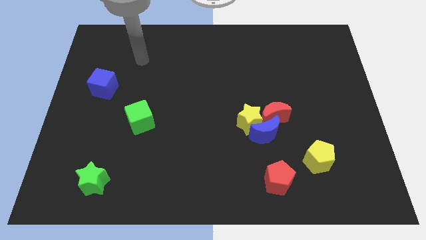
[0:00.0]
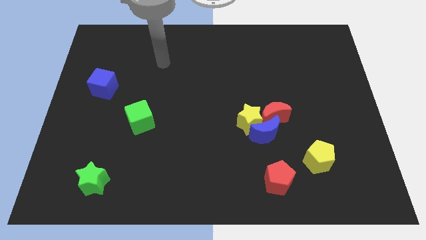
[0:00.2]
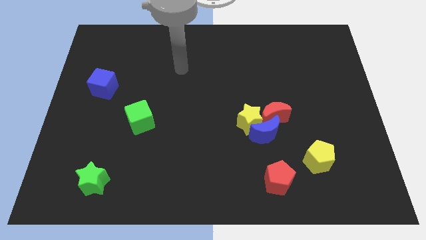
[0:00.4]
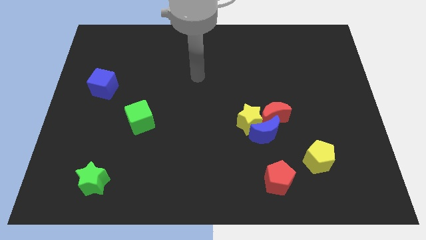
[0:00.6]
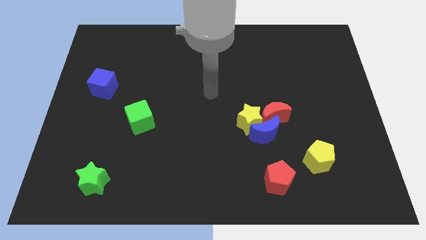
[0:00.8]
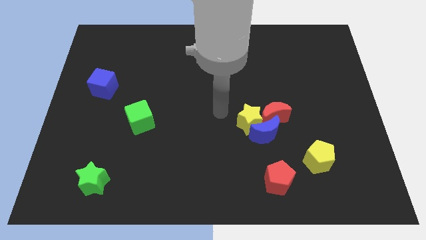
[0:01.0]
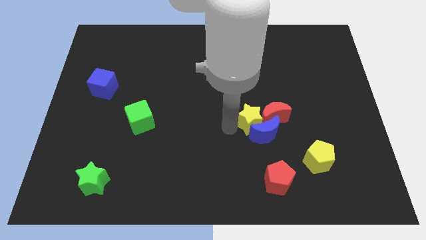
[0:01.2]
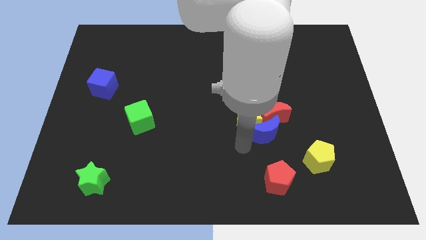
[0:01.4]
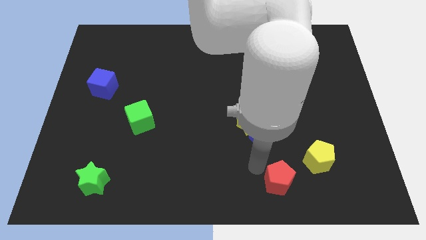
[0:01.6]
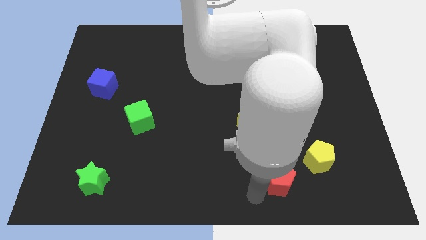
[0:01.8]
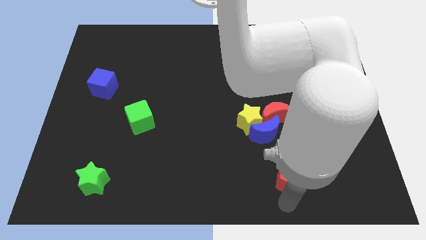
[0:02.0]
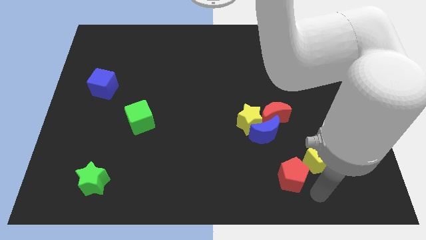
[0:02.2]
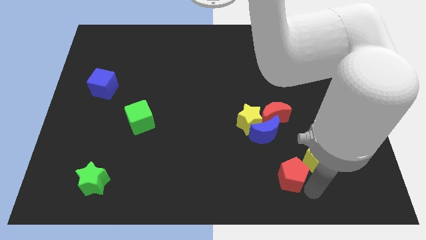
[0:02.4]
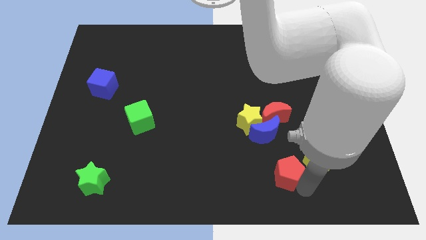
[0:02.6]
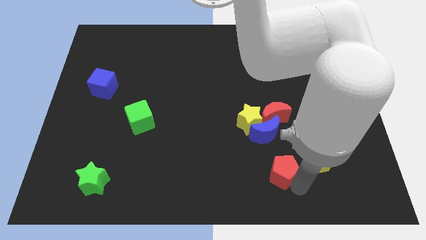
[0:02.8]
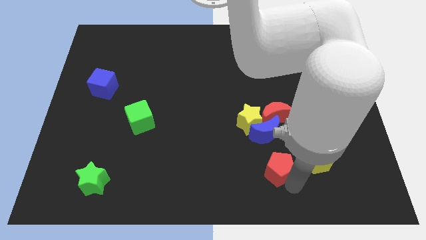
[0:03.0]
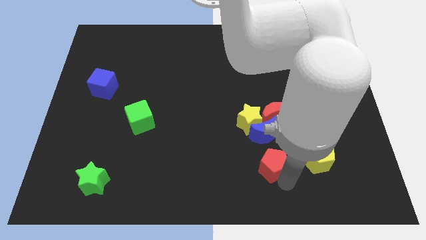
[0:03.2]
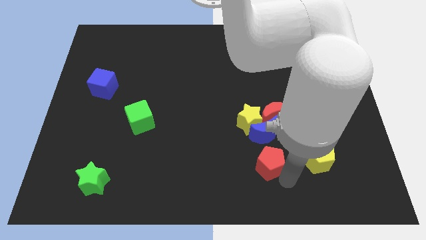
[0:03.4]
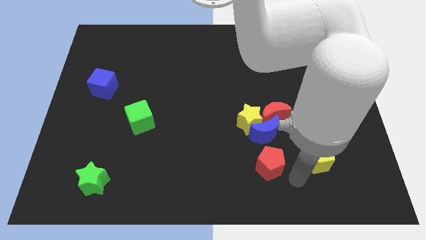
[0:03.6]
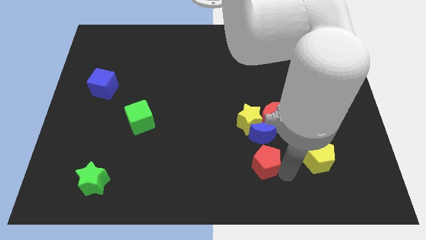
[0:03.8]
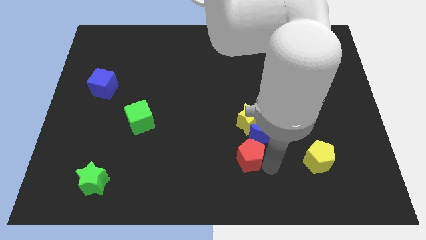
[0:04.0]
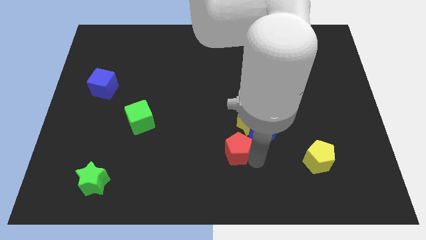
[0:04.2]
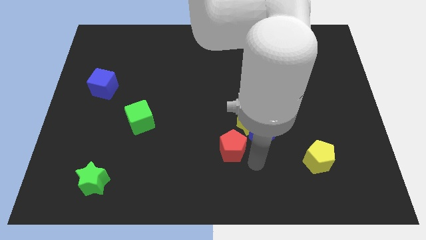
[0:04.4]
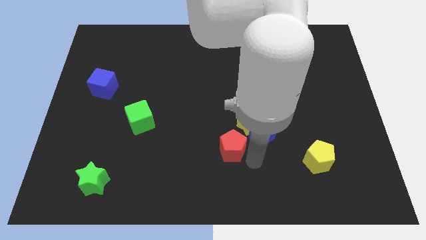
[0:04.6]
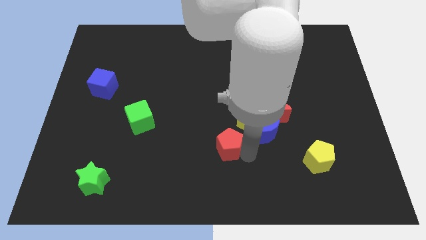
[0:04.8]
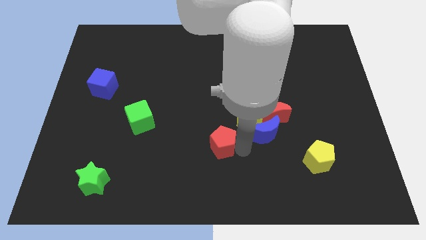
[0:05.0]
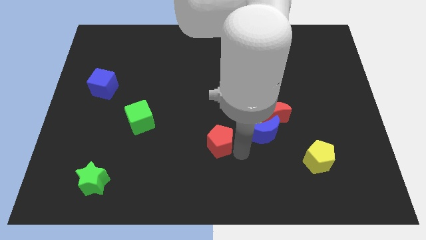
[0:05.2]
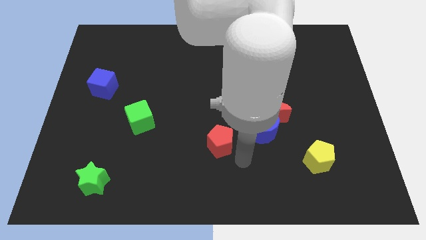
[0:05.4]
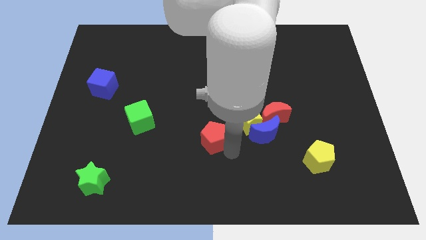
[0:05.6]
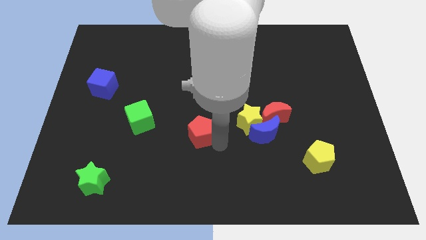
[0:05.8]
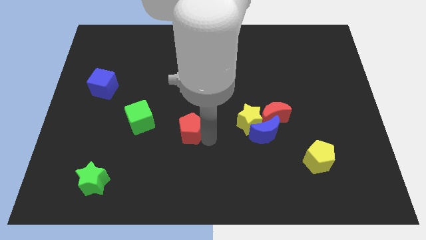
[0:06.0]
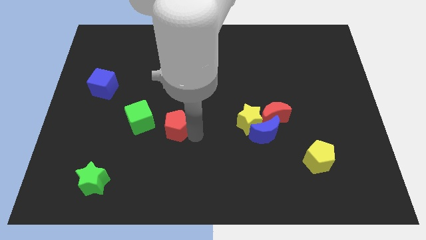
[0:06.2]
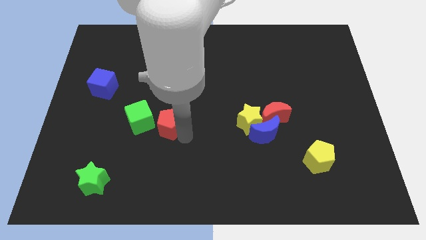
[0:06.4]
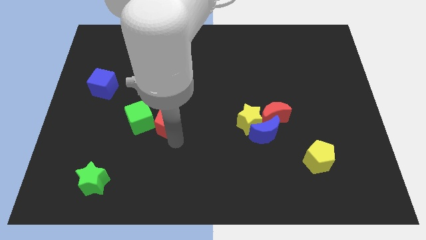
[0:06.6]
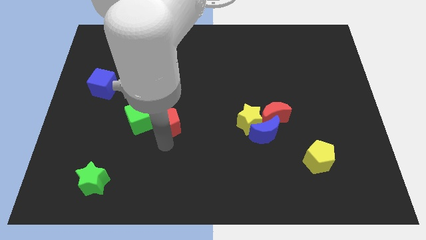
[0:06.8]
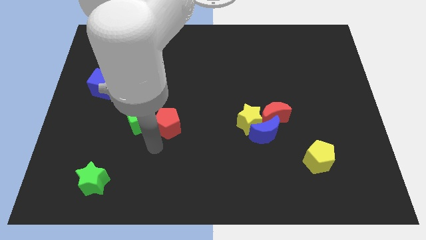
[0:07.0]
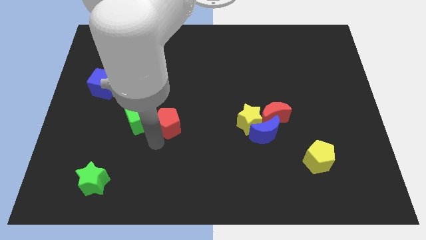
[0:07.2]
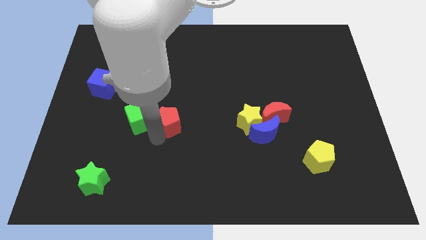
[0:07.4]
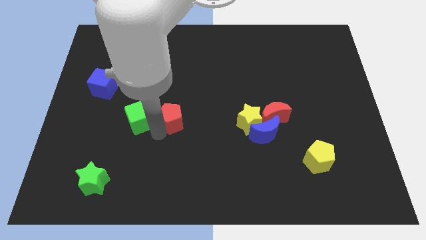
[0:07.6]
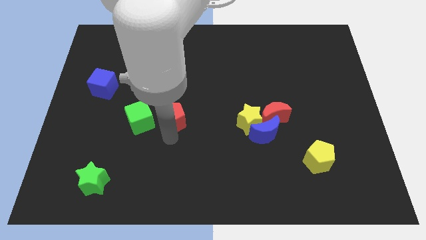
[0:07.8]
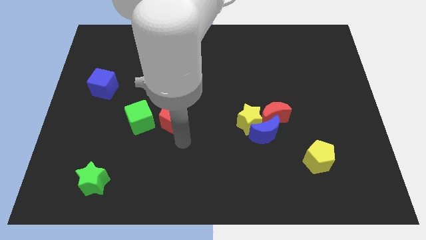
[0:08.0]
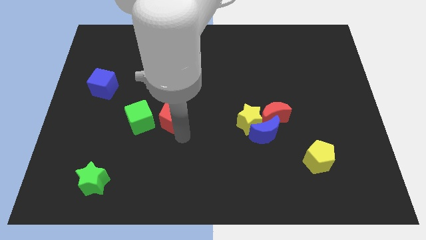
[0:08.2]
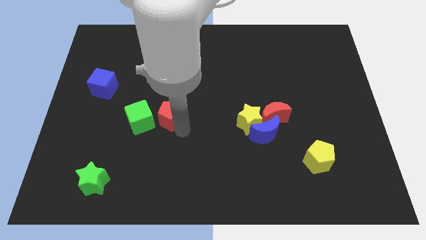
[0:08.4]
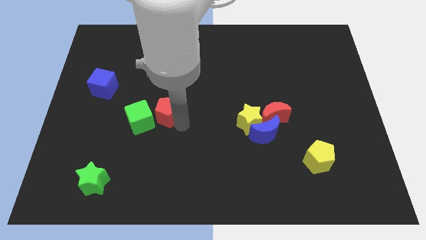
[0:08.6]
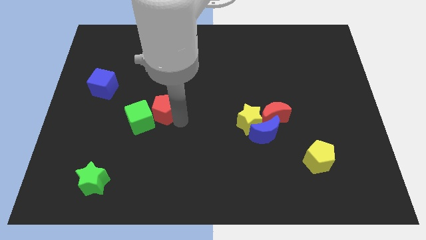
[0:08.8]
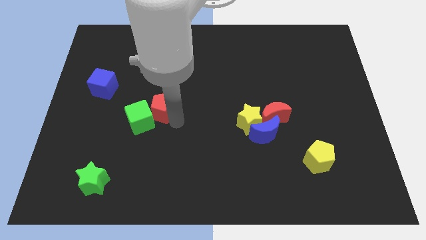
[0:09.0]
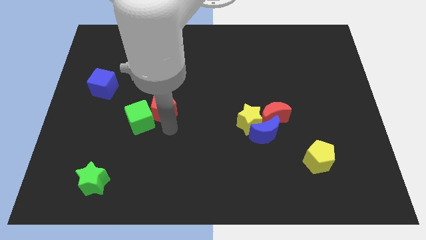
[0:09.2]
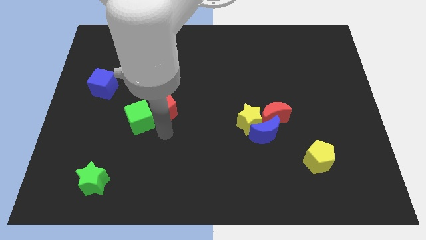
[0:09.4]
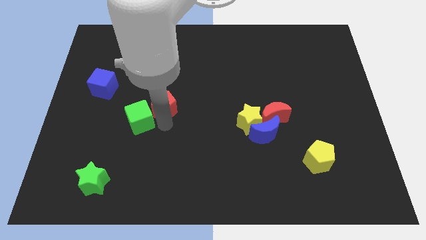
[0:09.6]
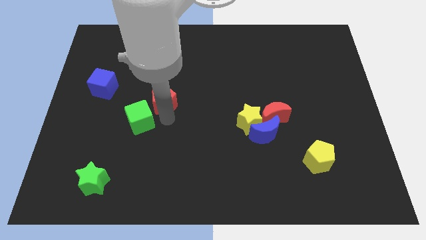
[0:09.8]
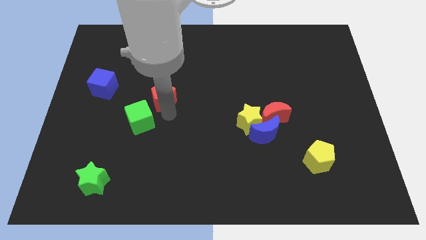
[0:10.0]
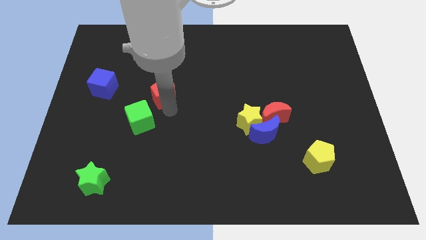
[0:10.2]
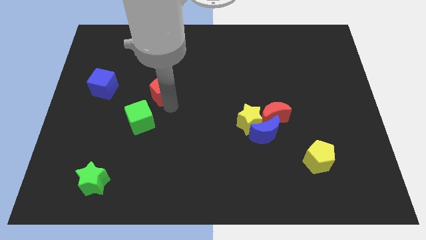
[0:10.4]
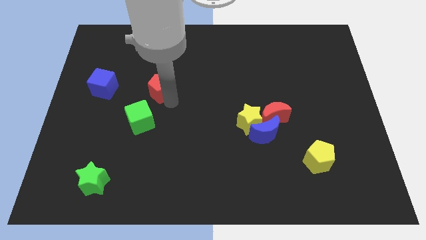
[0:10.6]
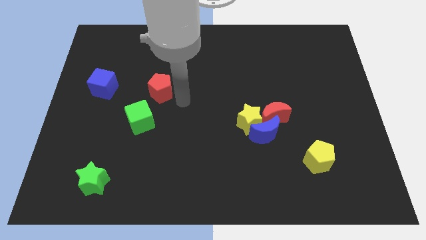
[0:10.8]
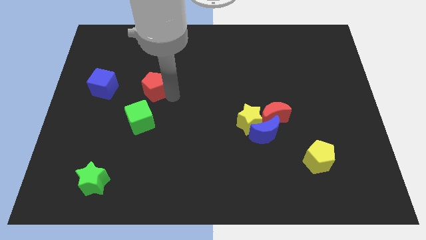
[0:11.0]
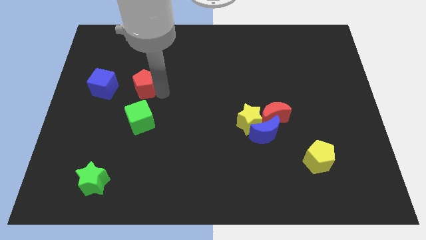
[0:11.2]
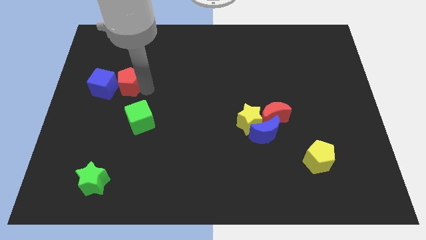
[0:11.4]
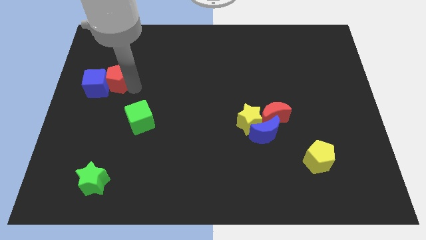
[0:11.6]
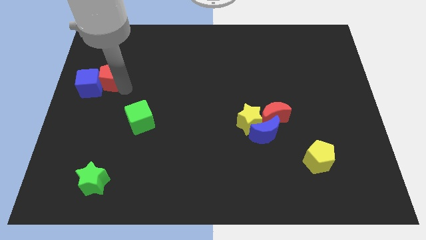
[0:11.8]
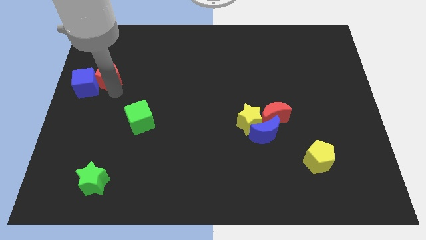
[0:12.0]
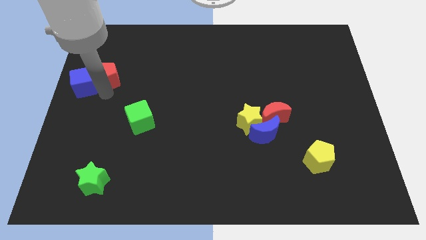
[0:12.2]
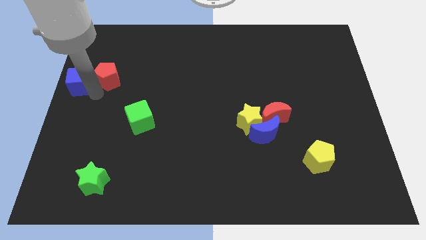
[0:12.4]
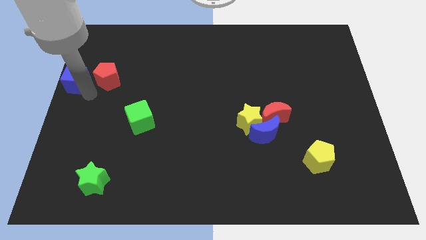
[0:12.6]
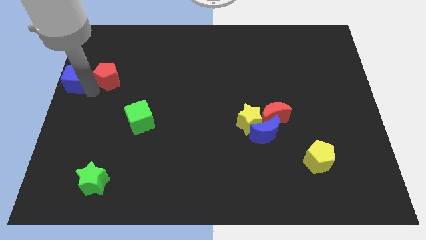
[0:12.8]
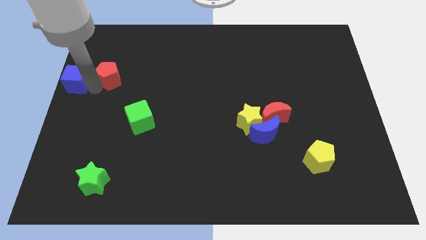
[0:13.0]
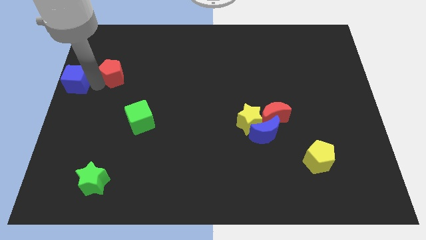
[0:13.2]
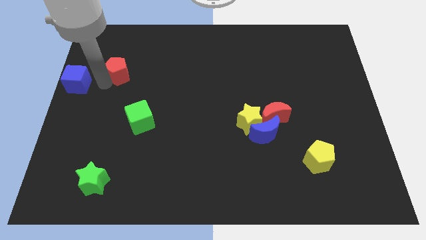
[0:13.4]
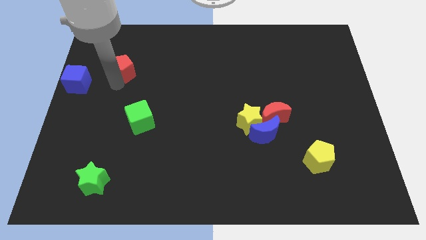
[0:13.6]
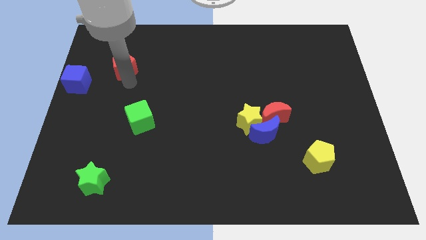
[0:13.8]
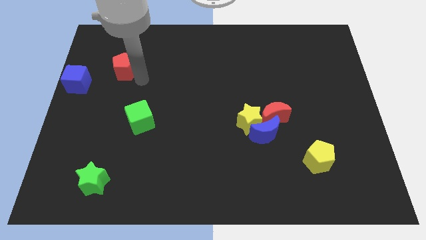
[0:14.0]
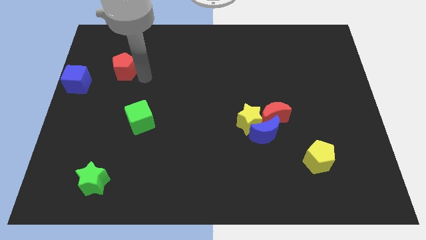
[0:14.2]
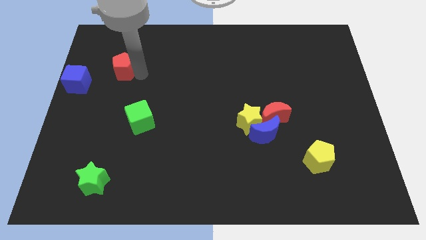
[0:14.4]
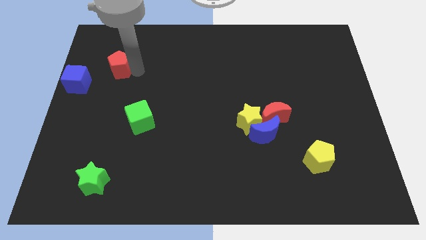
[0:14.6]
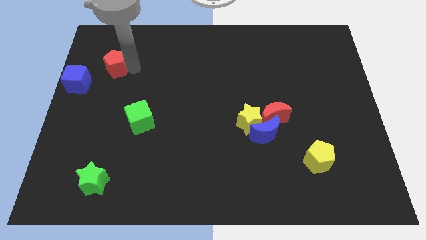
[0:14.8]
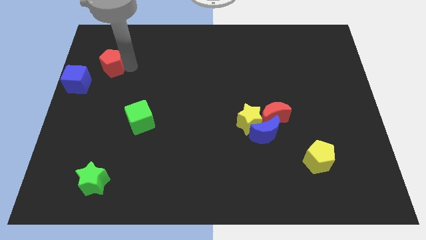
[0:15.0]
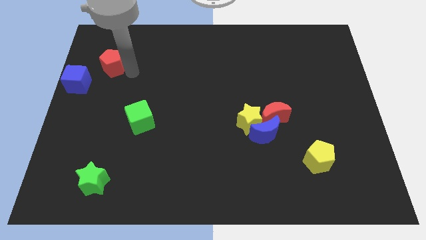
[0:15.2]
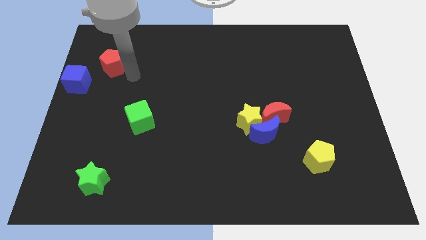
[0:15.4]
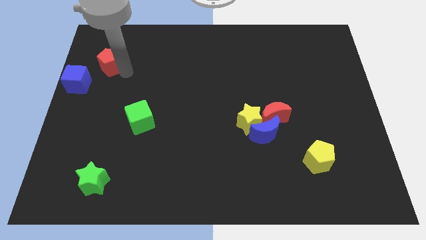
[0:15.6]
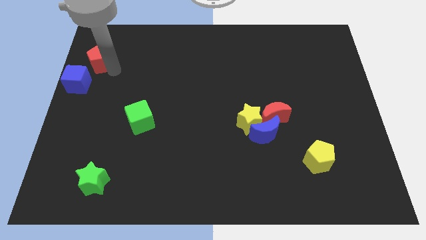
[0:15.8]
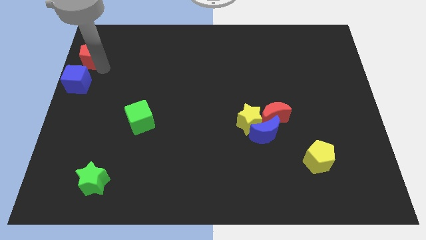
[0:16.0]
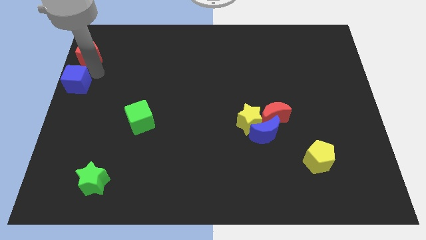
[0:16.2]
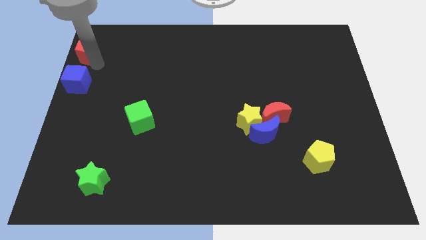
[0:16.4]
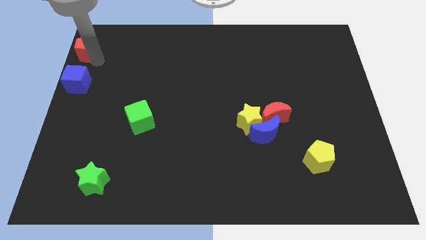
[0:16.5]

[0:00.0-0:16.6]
move the red pentagon to the top left corner
